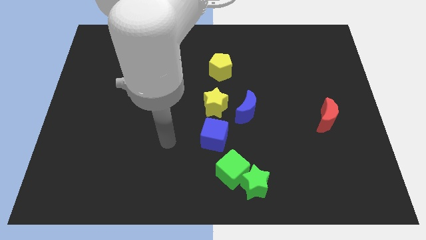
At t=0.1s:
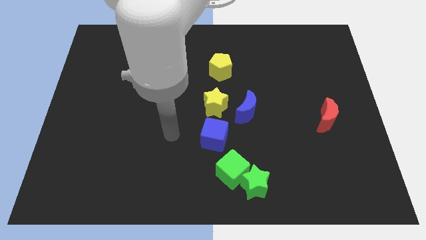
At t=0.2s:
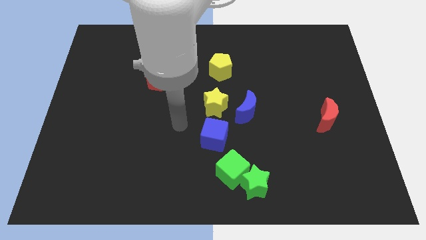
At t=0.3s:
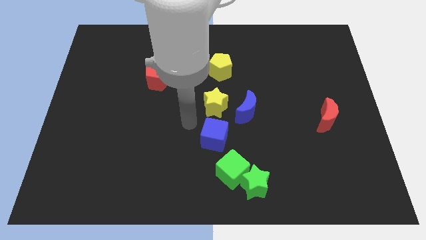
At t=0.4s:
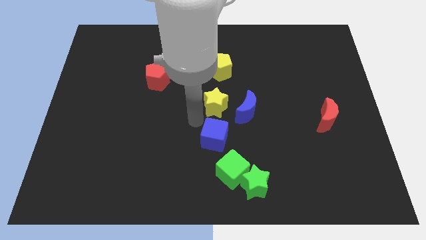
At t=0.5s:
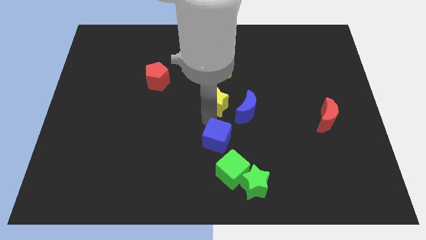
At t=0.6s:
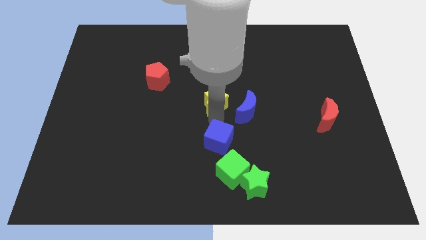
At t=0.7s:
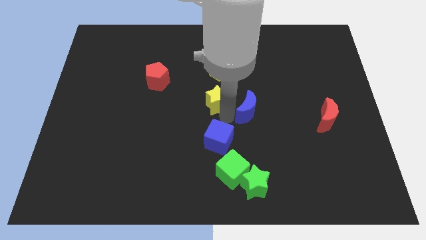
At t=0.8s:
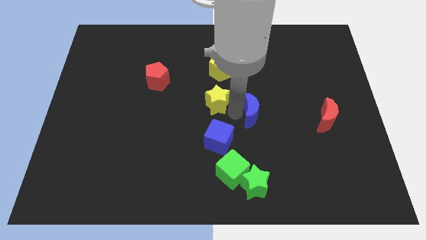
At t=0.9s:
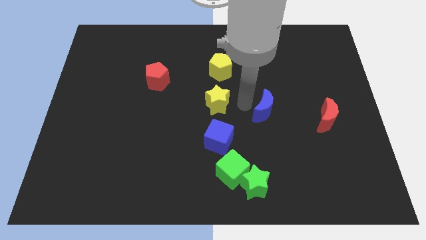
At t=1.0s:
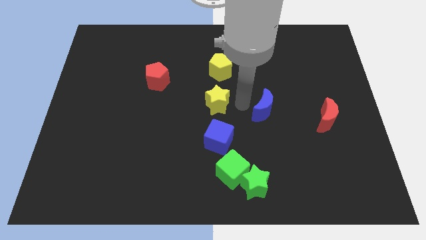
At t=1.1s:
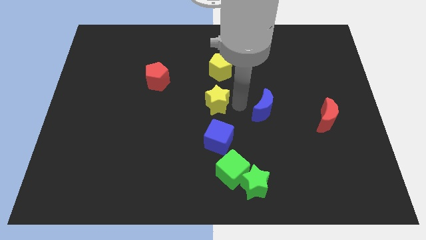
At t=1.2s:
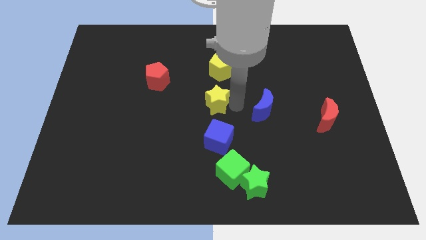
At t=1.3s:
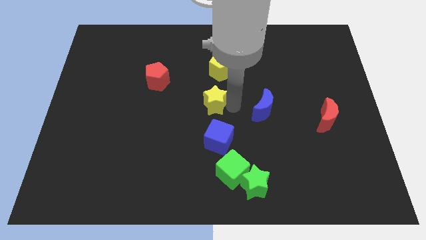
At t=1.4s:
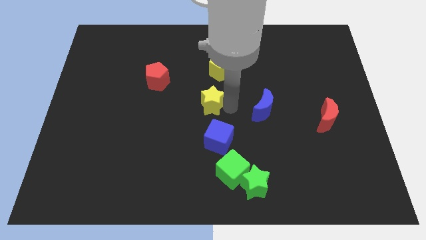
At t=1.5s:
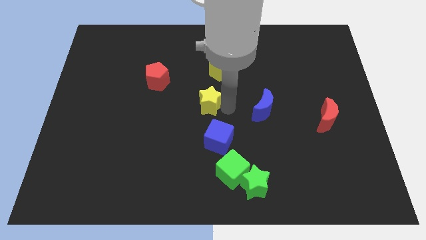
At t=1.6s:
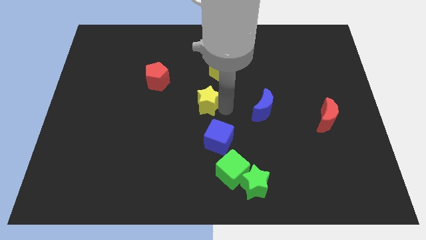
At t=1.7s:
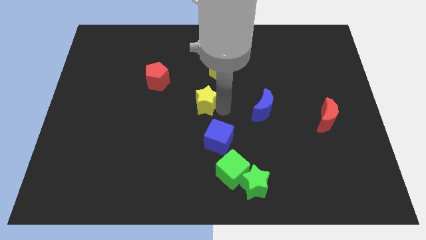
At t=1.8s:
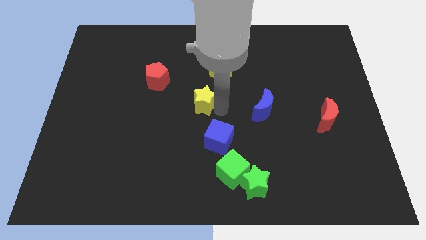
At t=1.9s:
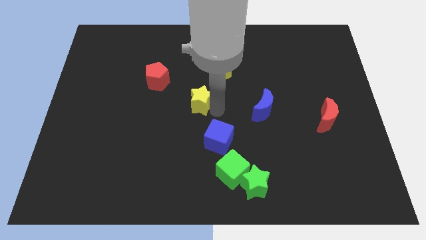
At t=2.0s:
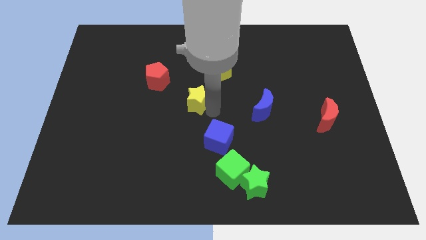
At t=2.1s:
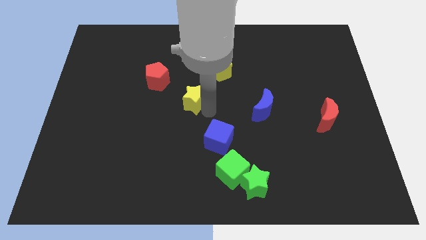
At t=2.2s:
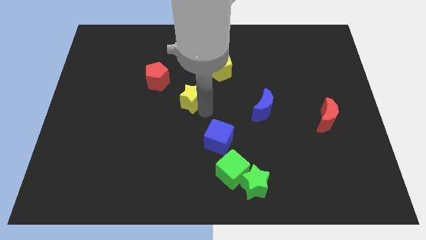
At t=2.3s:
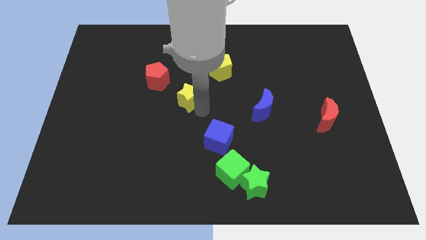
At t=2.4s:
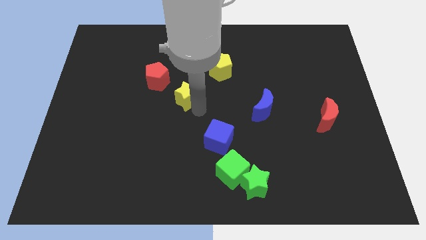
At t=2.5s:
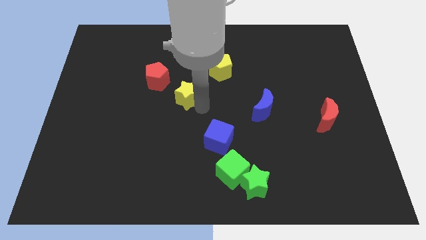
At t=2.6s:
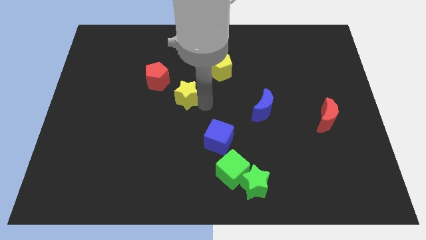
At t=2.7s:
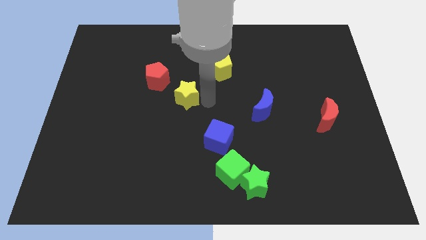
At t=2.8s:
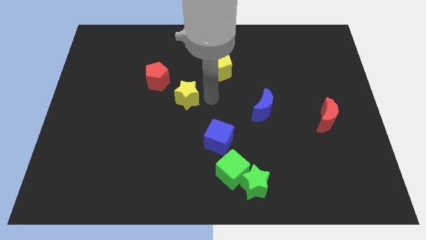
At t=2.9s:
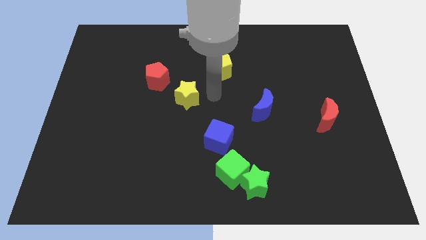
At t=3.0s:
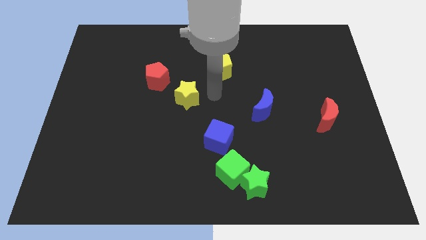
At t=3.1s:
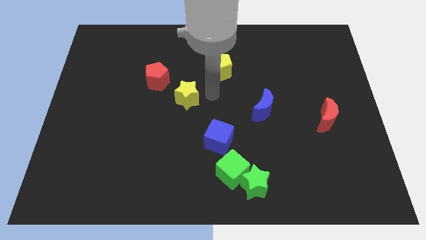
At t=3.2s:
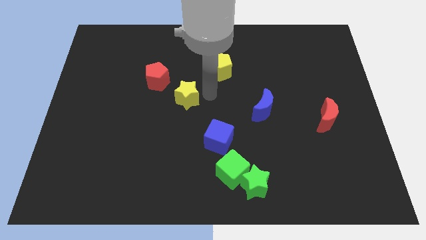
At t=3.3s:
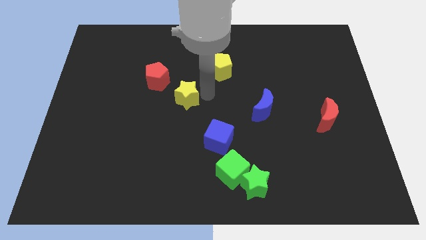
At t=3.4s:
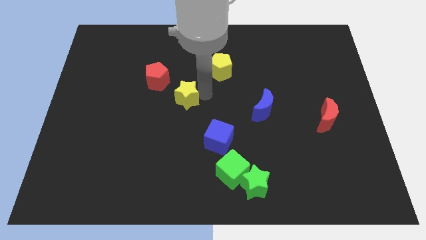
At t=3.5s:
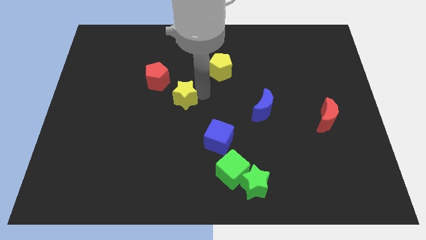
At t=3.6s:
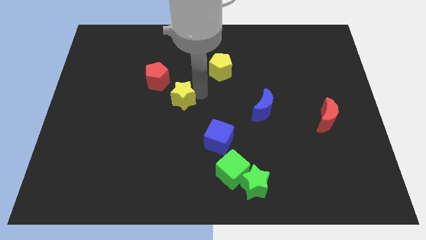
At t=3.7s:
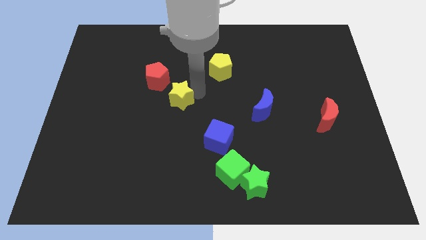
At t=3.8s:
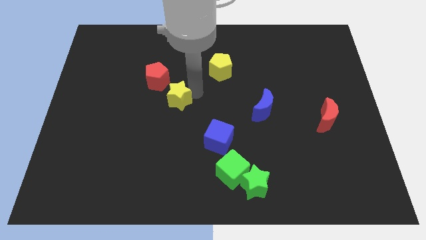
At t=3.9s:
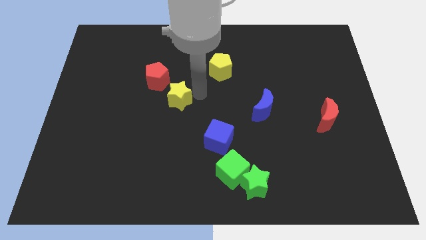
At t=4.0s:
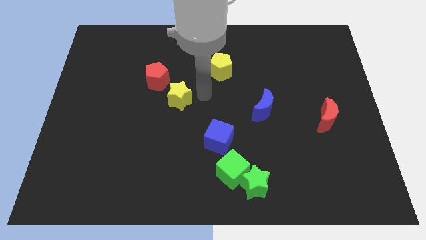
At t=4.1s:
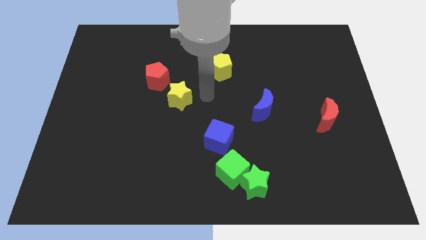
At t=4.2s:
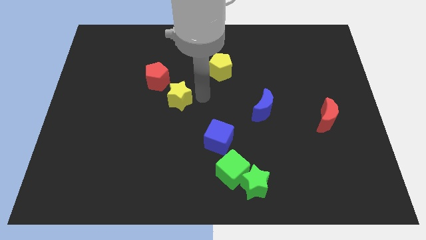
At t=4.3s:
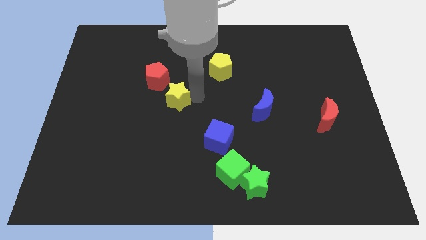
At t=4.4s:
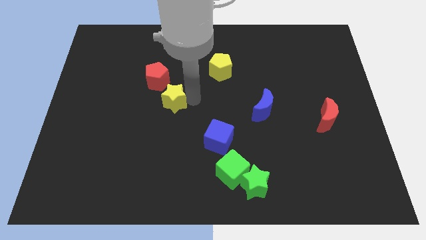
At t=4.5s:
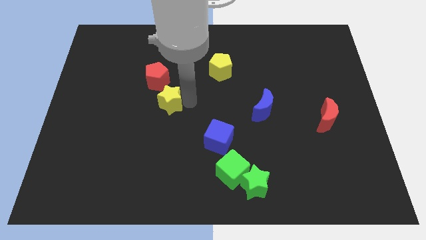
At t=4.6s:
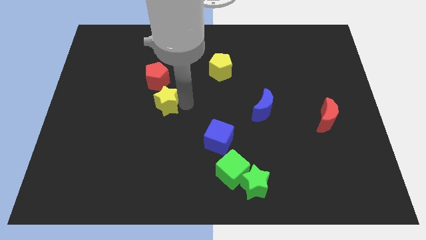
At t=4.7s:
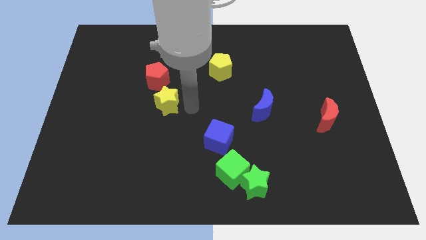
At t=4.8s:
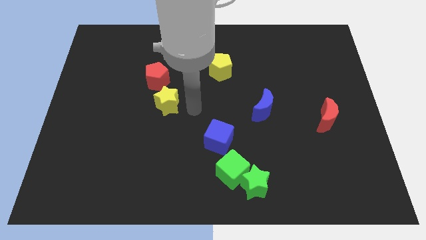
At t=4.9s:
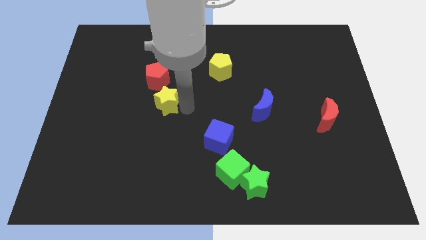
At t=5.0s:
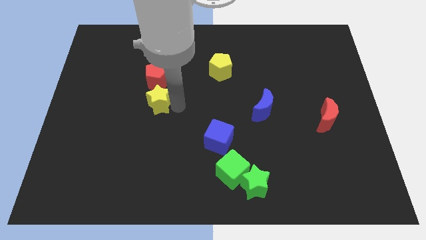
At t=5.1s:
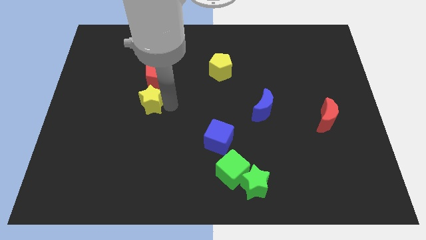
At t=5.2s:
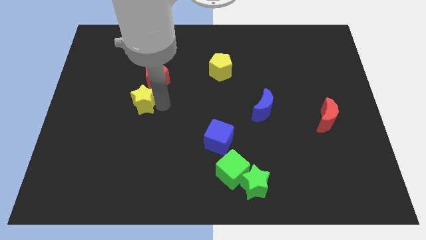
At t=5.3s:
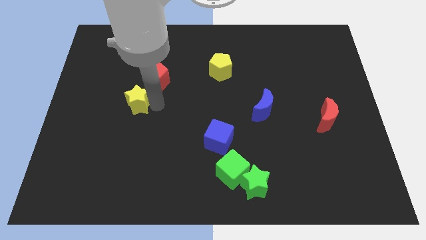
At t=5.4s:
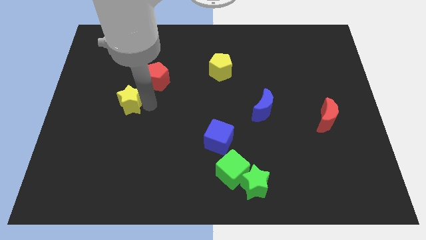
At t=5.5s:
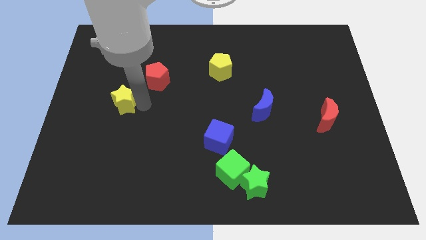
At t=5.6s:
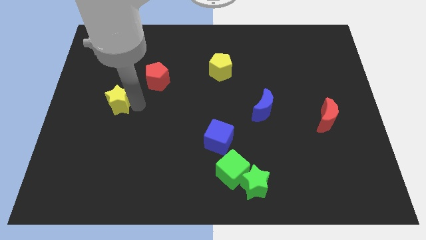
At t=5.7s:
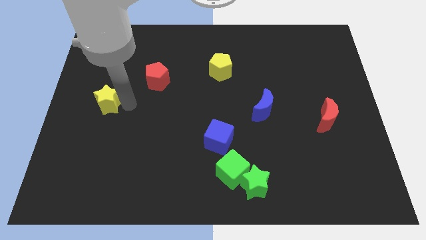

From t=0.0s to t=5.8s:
put the yellow star to the left side
